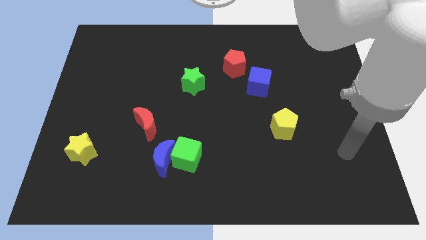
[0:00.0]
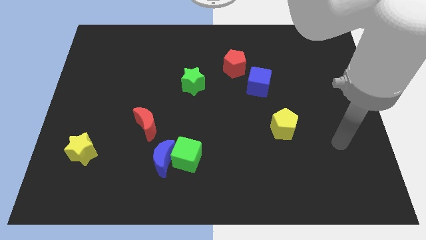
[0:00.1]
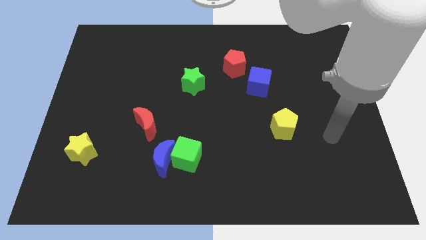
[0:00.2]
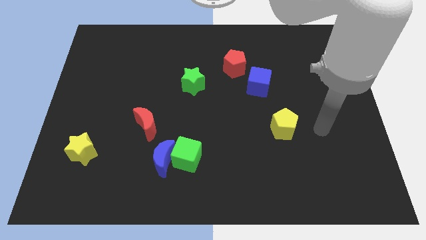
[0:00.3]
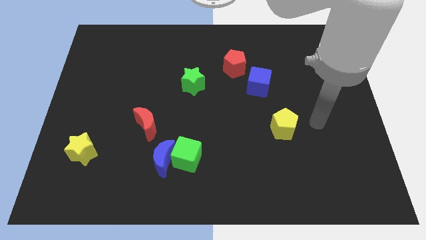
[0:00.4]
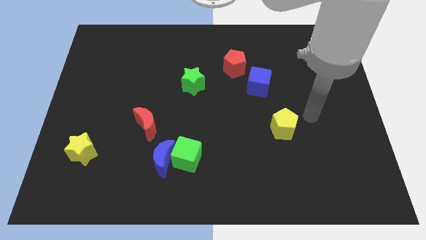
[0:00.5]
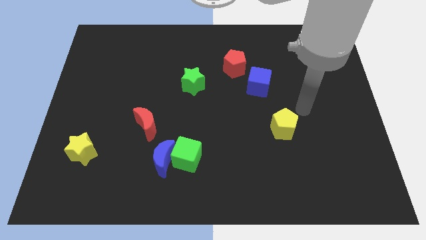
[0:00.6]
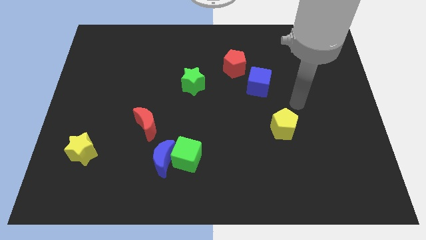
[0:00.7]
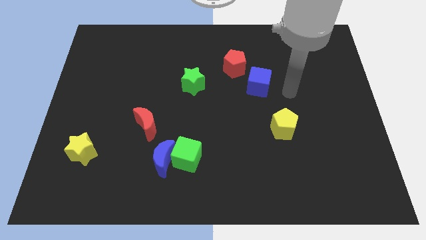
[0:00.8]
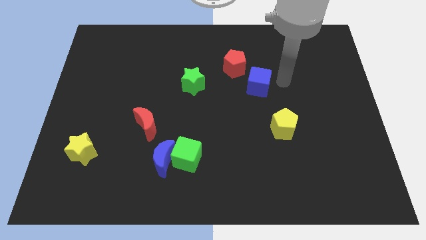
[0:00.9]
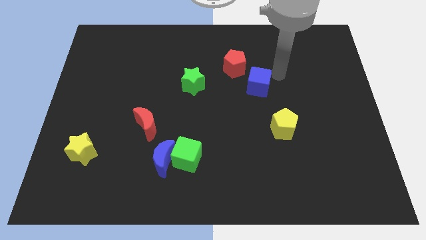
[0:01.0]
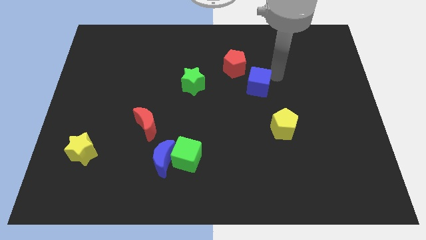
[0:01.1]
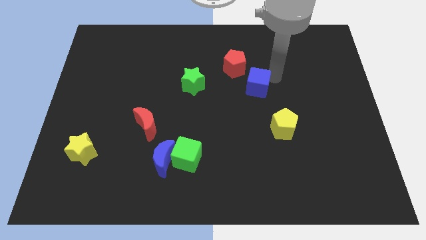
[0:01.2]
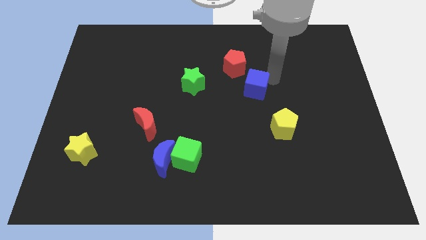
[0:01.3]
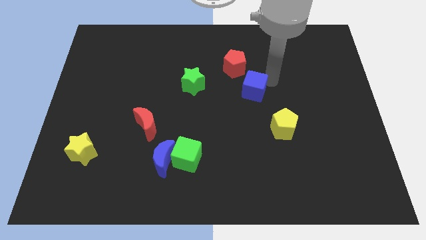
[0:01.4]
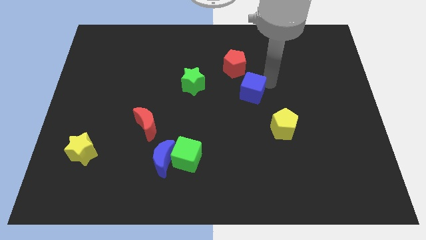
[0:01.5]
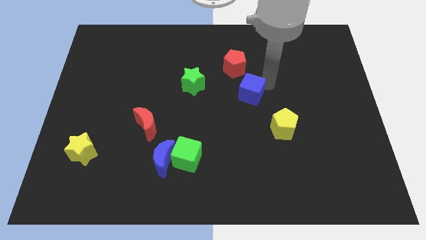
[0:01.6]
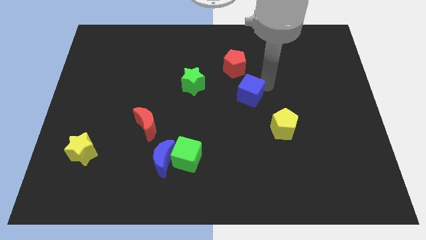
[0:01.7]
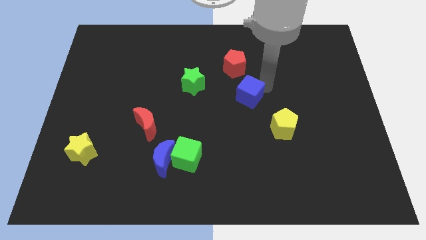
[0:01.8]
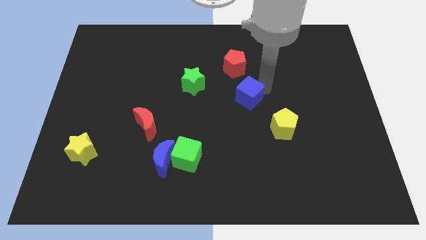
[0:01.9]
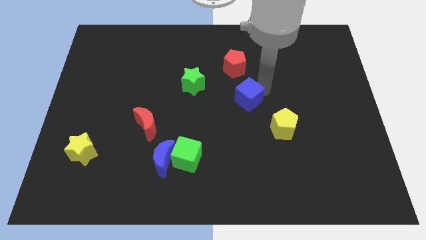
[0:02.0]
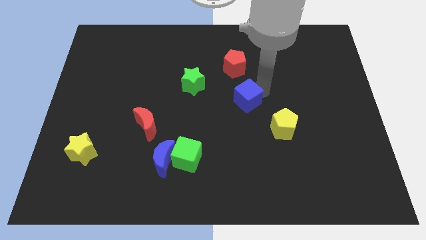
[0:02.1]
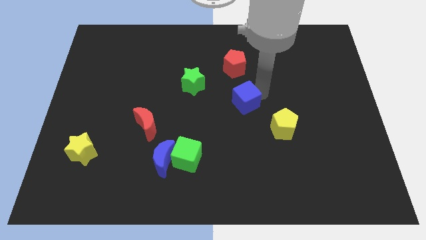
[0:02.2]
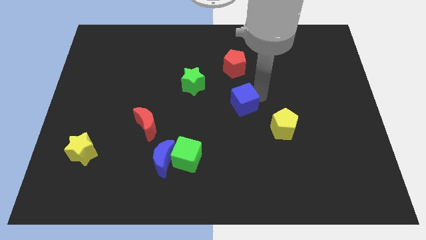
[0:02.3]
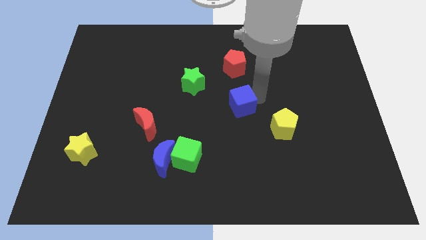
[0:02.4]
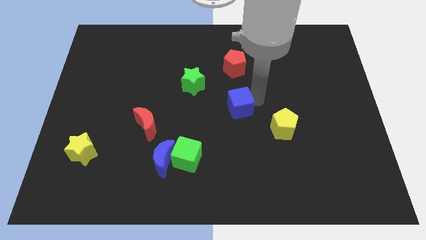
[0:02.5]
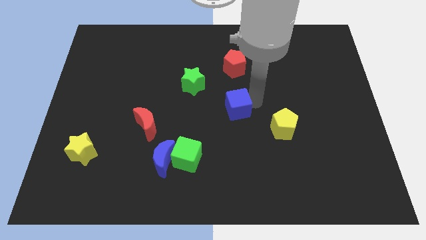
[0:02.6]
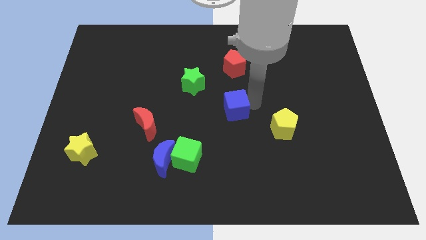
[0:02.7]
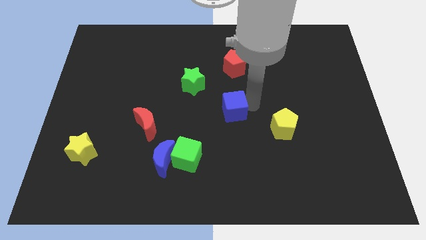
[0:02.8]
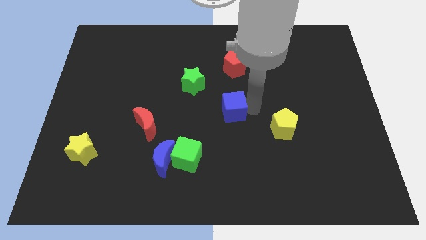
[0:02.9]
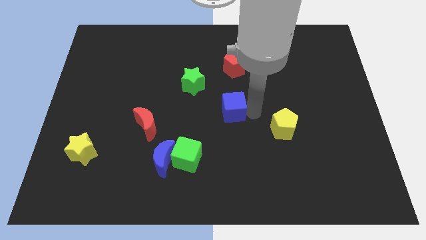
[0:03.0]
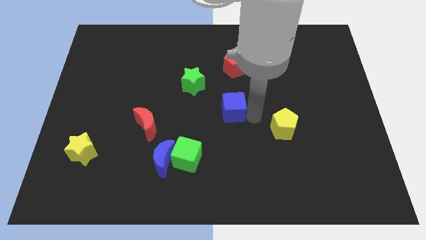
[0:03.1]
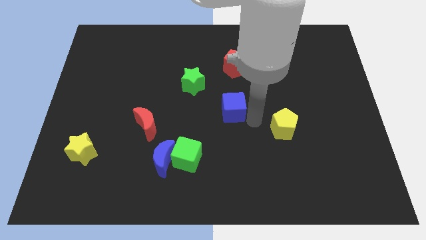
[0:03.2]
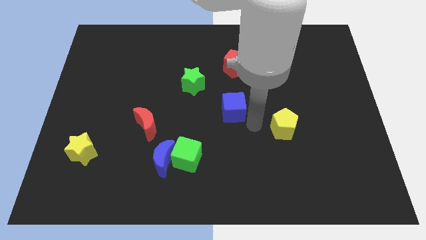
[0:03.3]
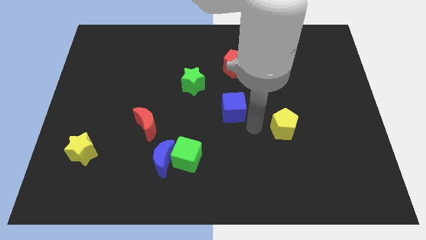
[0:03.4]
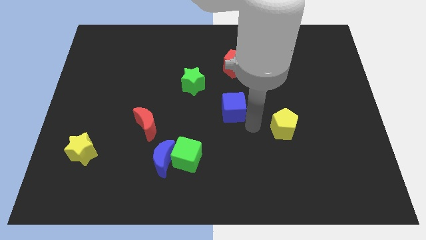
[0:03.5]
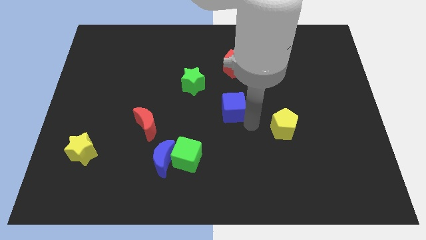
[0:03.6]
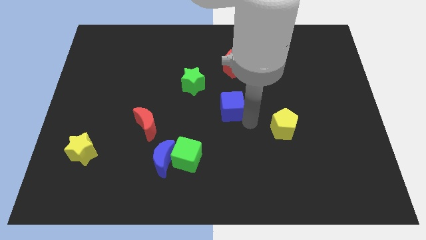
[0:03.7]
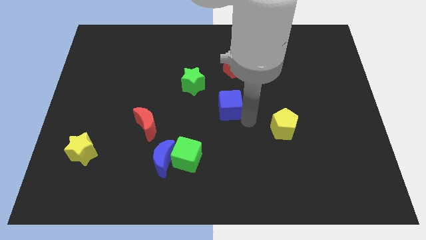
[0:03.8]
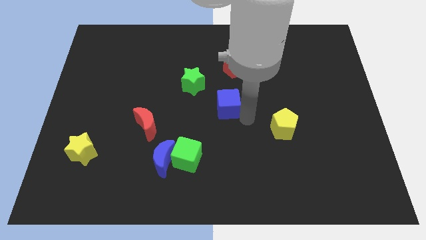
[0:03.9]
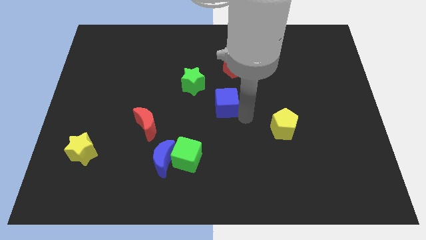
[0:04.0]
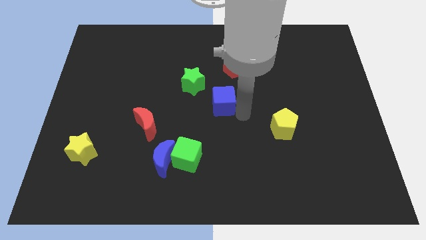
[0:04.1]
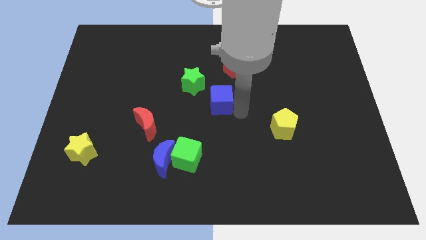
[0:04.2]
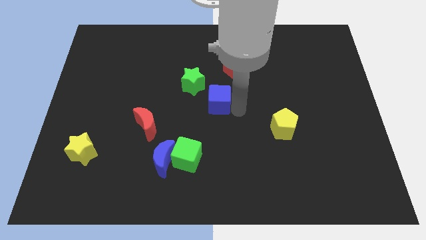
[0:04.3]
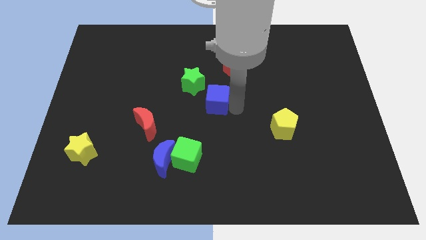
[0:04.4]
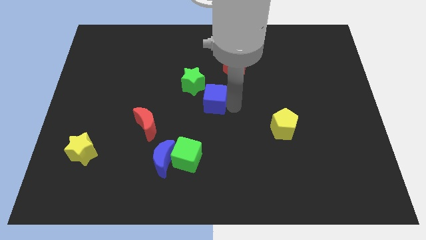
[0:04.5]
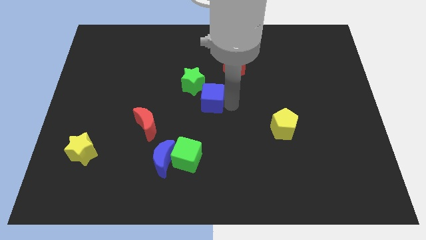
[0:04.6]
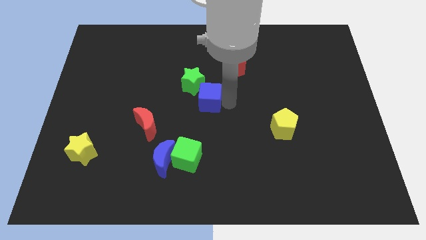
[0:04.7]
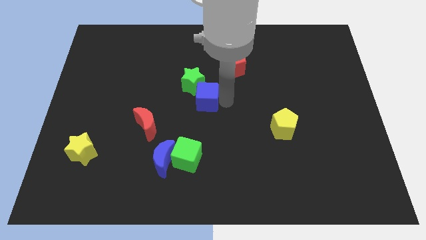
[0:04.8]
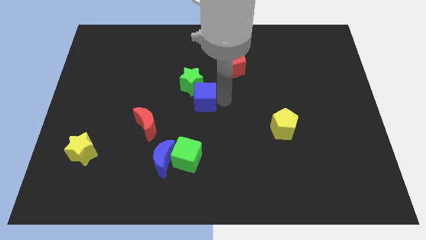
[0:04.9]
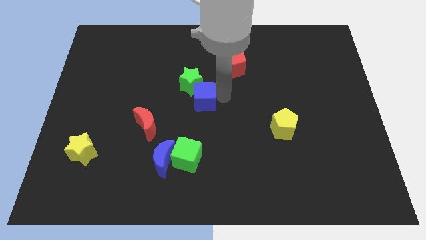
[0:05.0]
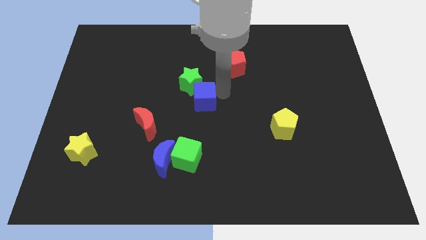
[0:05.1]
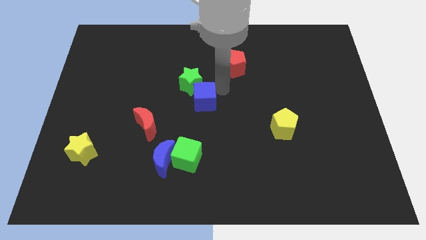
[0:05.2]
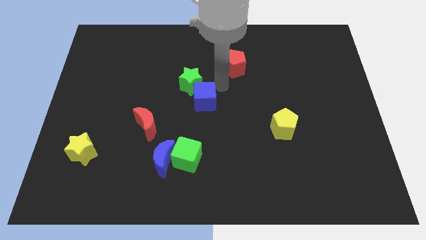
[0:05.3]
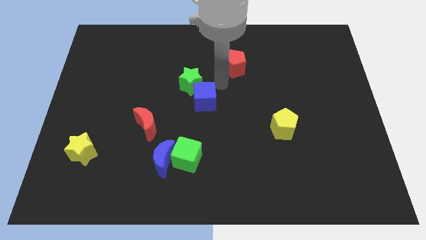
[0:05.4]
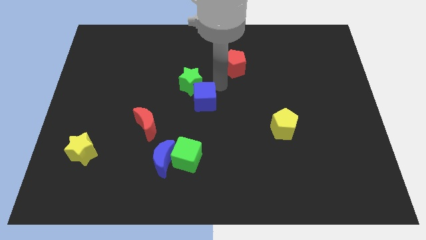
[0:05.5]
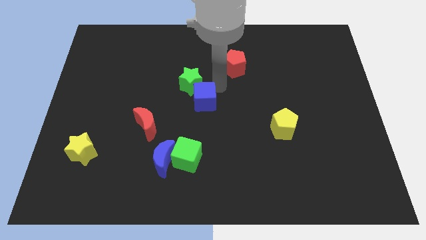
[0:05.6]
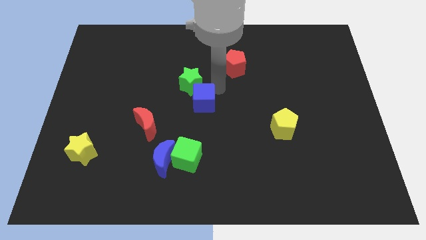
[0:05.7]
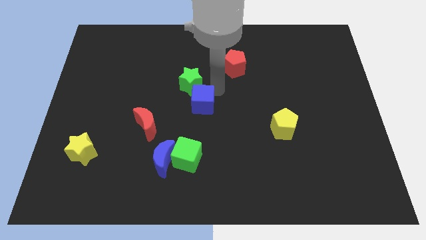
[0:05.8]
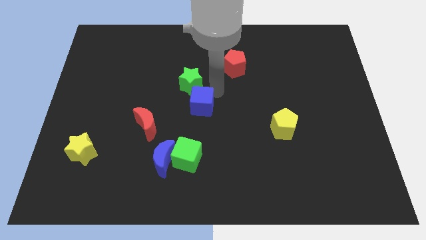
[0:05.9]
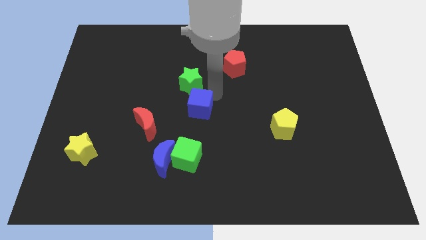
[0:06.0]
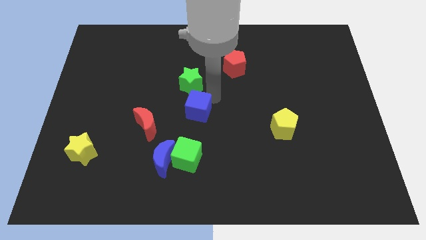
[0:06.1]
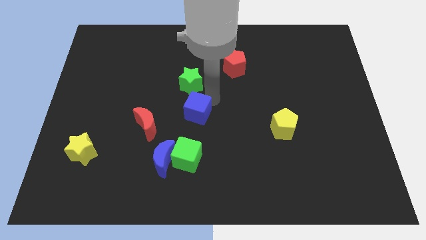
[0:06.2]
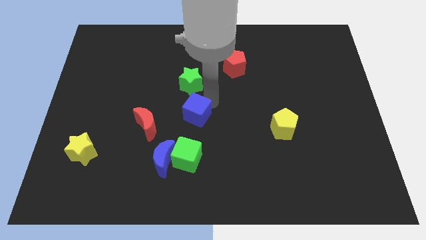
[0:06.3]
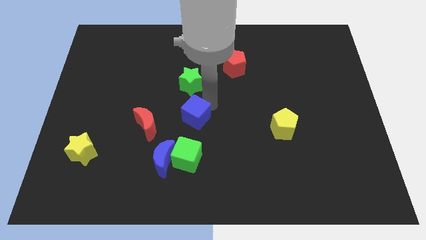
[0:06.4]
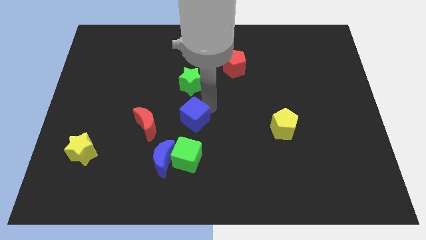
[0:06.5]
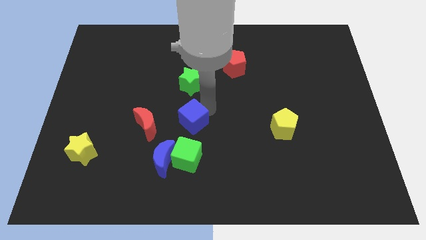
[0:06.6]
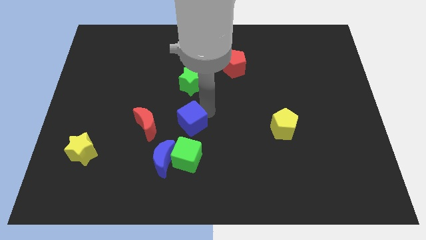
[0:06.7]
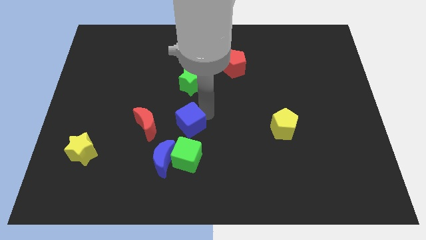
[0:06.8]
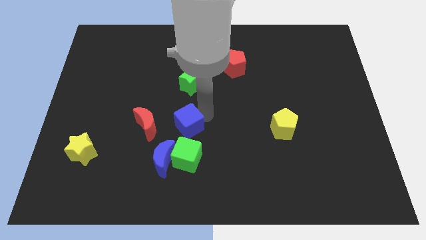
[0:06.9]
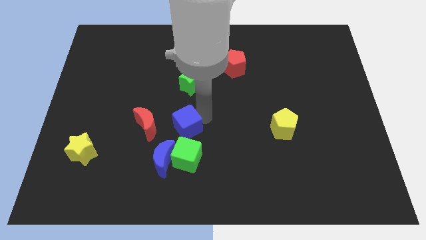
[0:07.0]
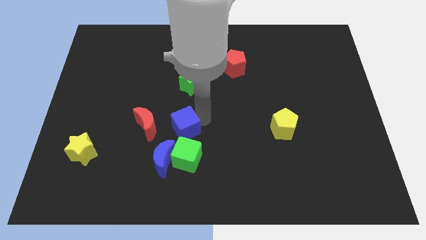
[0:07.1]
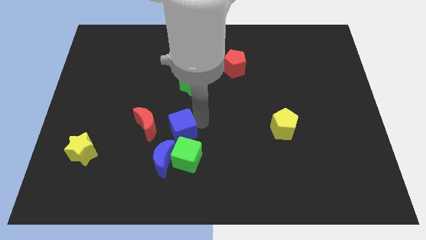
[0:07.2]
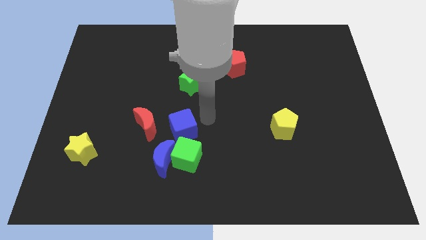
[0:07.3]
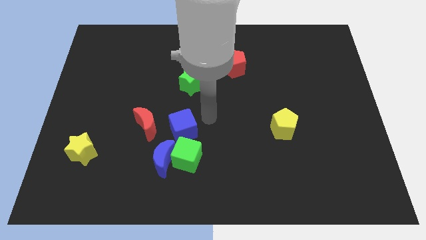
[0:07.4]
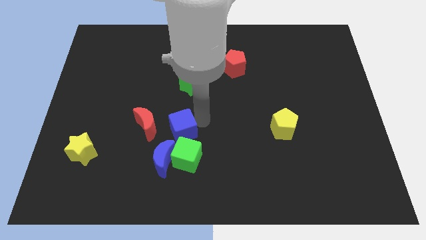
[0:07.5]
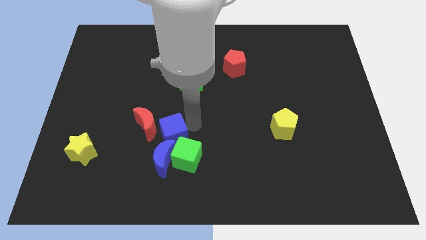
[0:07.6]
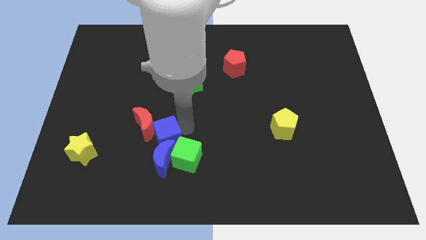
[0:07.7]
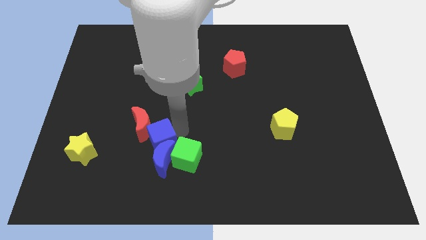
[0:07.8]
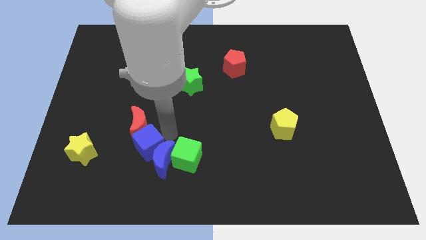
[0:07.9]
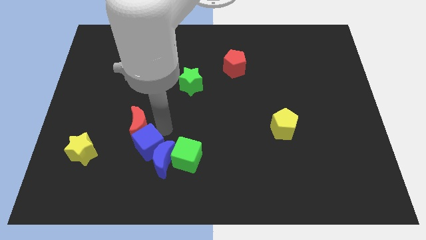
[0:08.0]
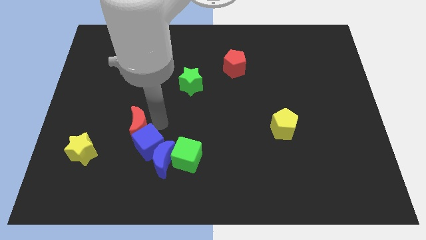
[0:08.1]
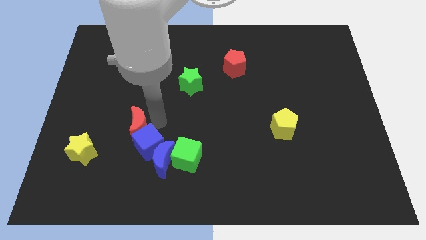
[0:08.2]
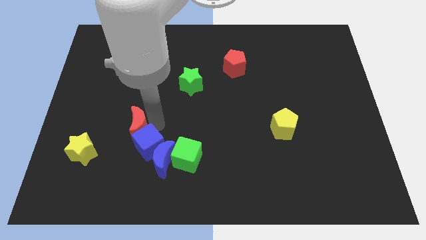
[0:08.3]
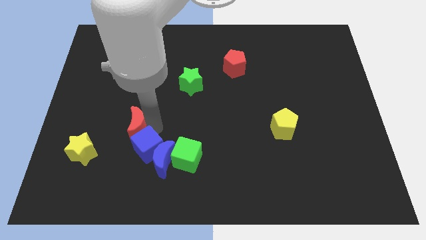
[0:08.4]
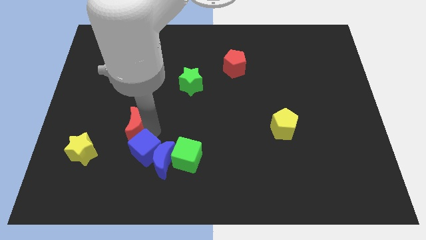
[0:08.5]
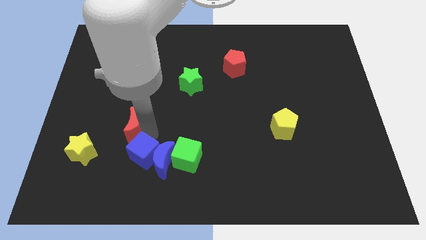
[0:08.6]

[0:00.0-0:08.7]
put the blue cube to the bottom left side of the blue moon
